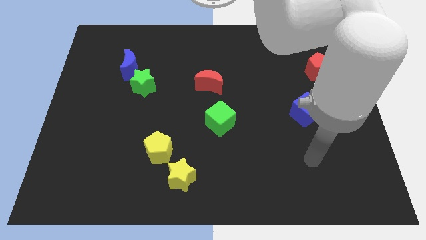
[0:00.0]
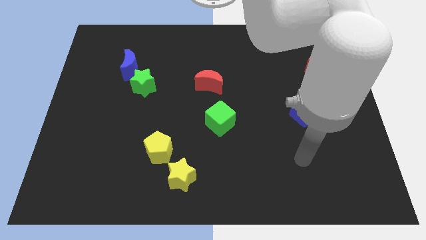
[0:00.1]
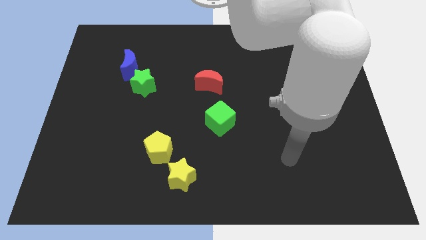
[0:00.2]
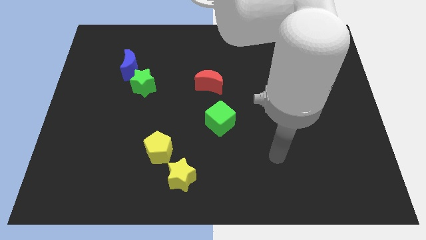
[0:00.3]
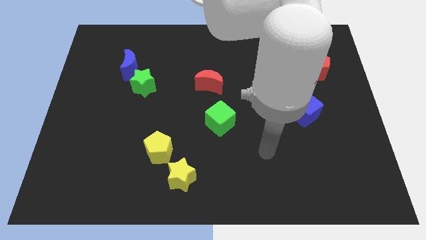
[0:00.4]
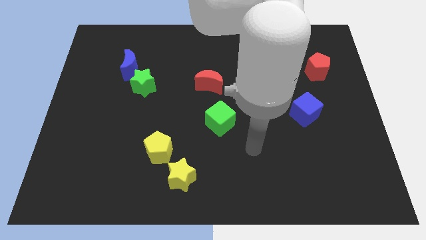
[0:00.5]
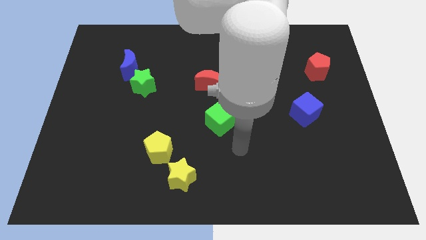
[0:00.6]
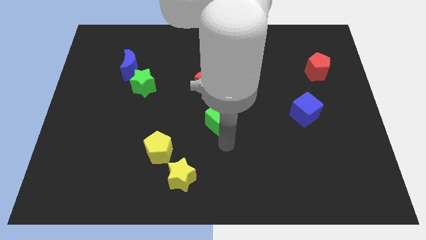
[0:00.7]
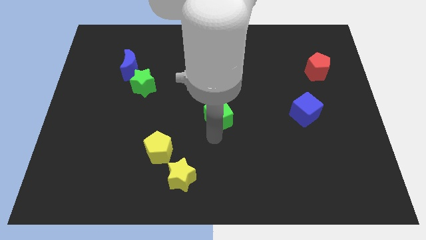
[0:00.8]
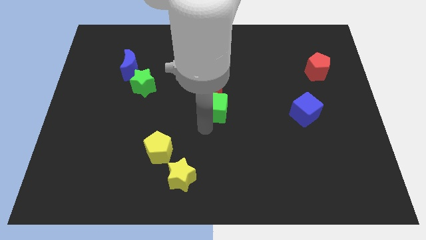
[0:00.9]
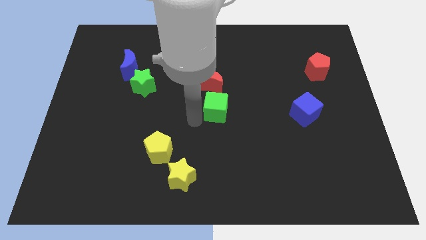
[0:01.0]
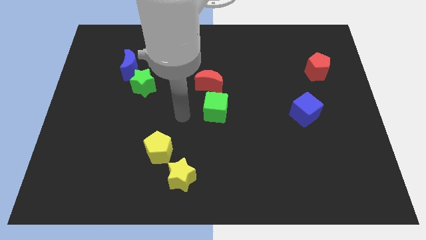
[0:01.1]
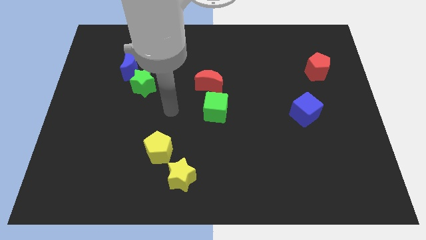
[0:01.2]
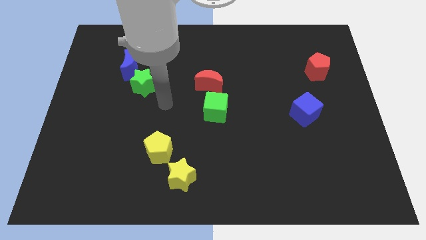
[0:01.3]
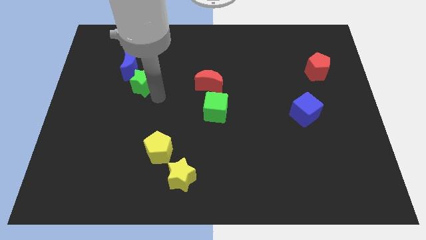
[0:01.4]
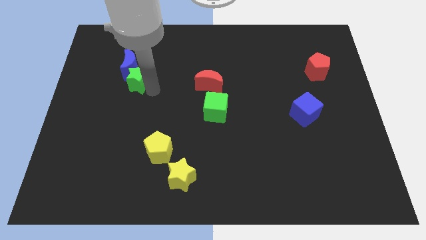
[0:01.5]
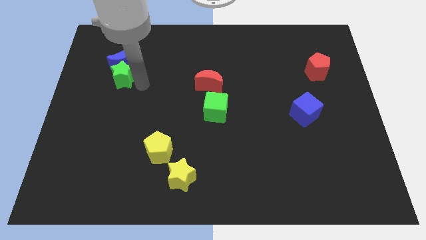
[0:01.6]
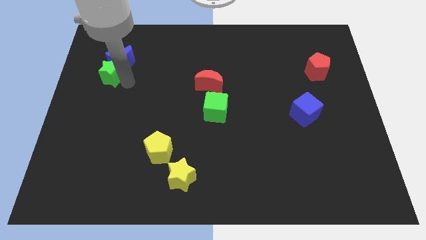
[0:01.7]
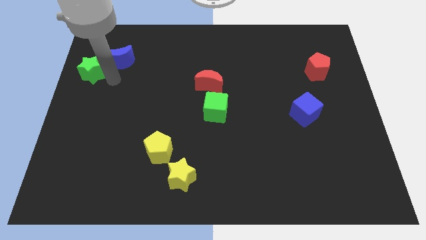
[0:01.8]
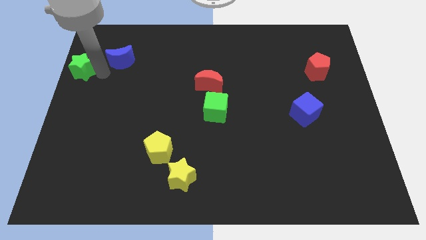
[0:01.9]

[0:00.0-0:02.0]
move the blue moon away from the green star

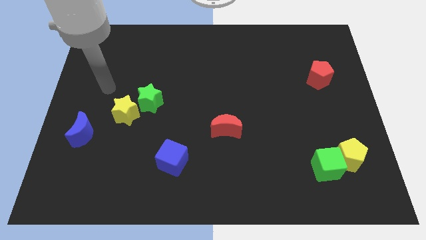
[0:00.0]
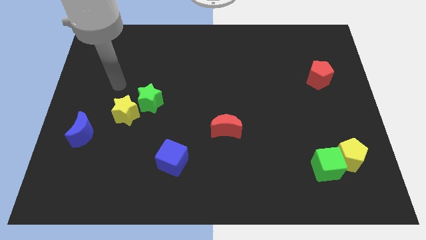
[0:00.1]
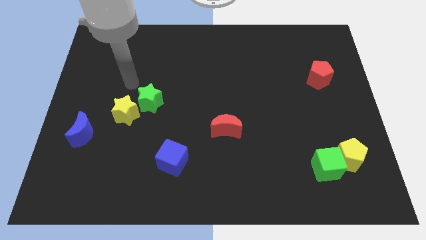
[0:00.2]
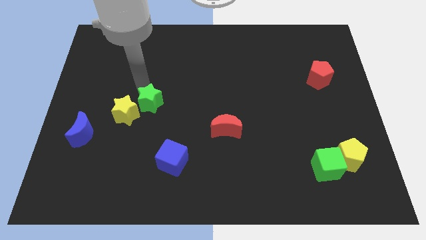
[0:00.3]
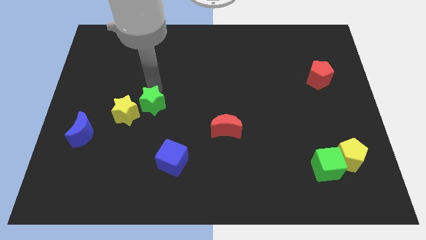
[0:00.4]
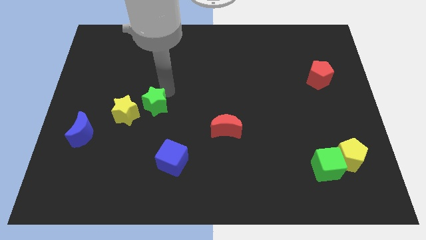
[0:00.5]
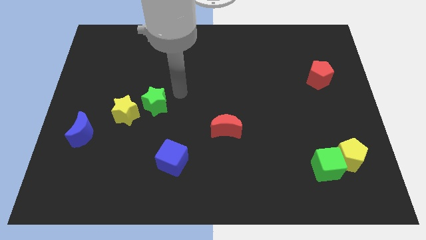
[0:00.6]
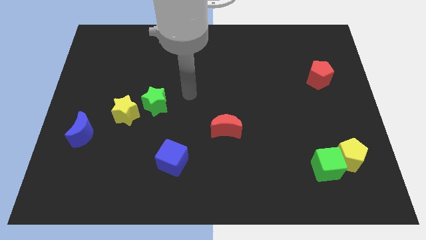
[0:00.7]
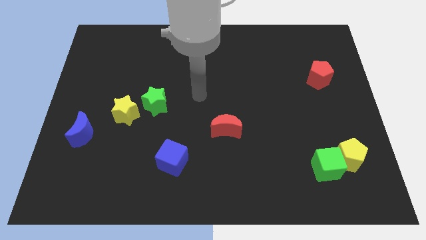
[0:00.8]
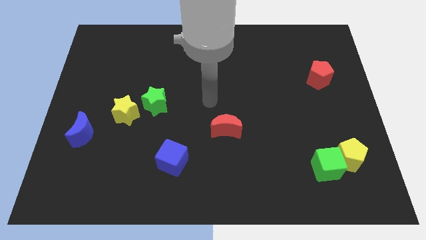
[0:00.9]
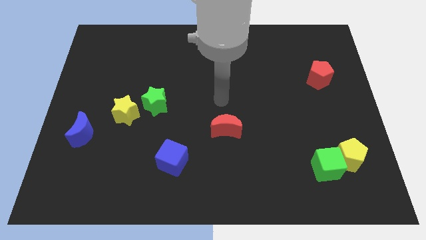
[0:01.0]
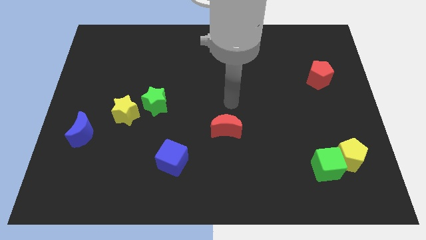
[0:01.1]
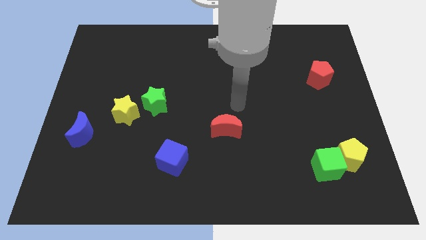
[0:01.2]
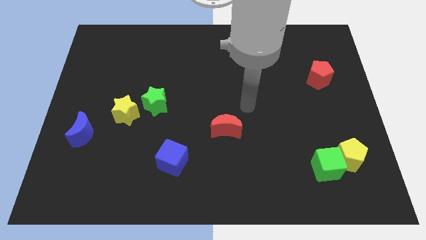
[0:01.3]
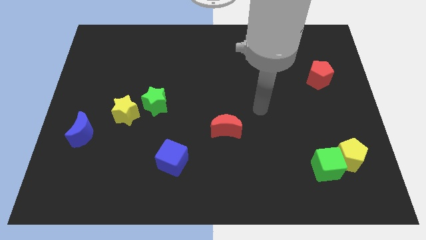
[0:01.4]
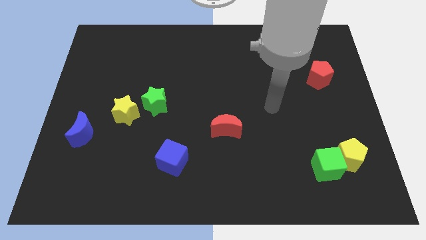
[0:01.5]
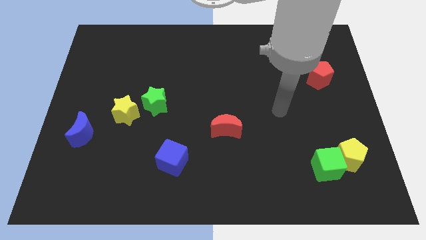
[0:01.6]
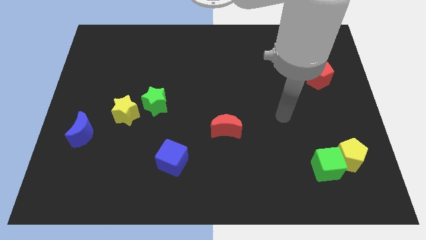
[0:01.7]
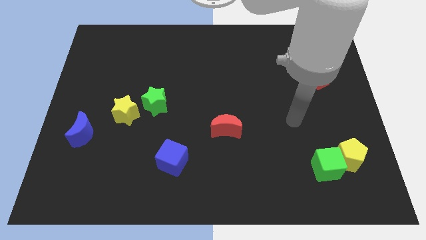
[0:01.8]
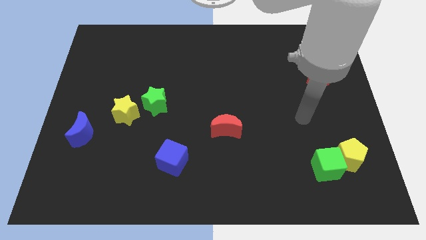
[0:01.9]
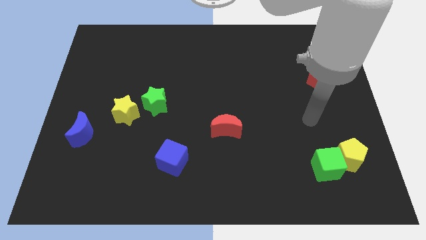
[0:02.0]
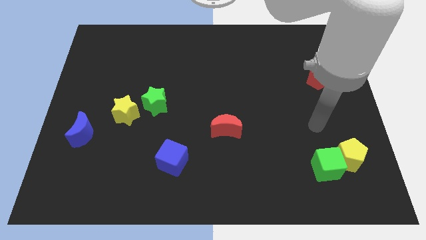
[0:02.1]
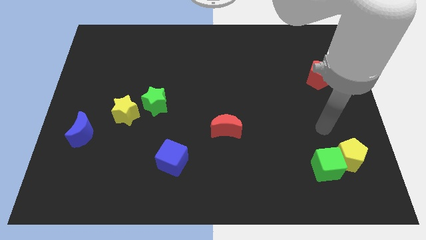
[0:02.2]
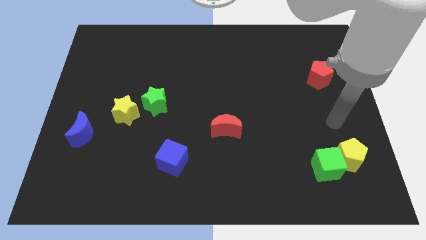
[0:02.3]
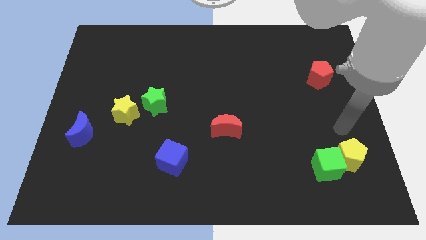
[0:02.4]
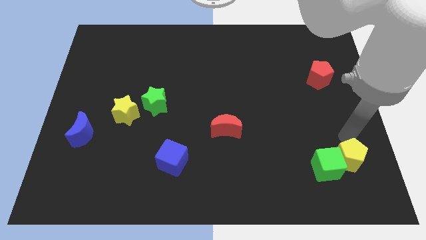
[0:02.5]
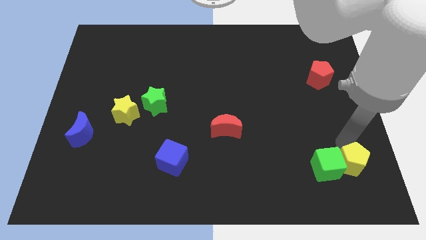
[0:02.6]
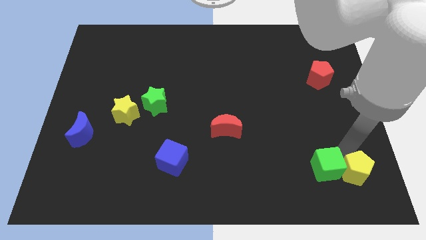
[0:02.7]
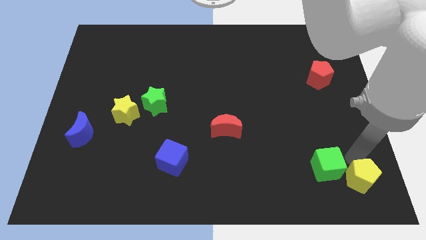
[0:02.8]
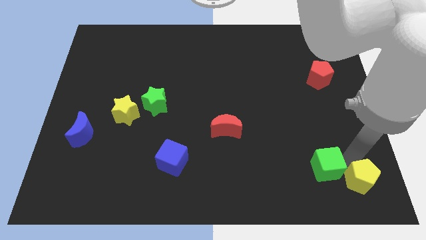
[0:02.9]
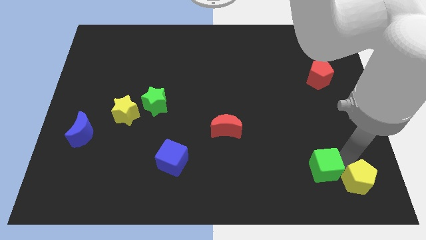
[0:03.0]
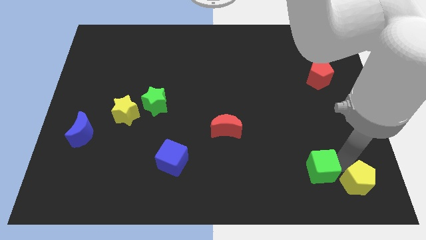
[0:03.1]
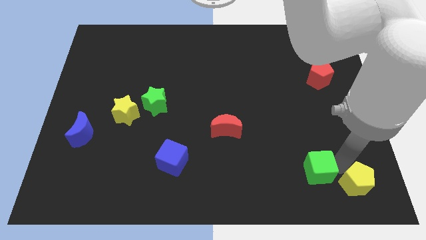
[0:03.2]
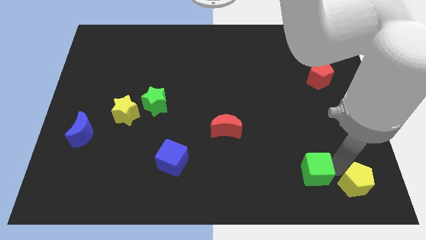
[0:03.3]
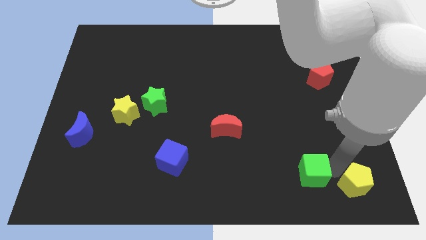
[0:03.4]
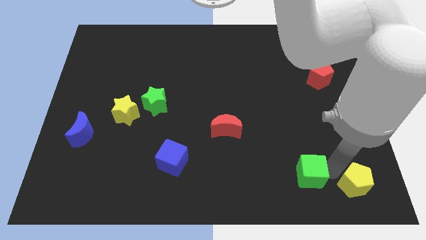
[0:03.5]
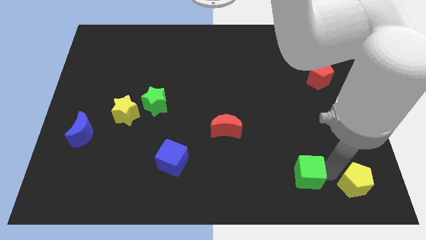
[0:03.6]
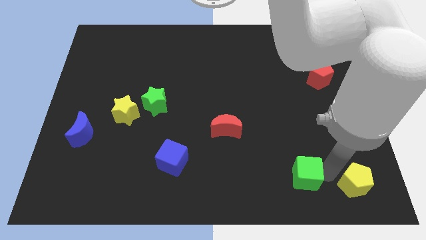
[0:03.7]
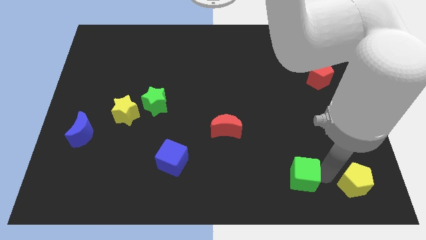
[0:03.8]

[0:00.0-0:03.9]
pull the green cube apart from the yellow pentagon

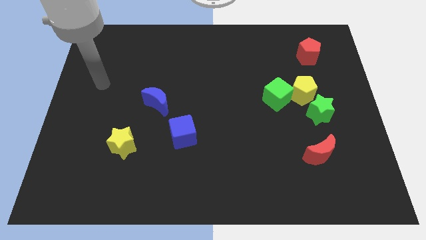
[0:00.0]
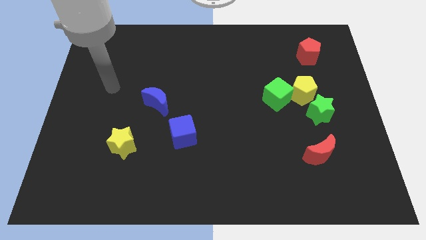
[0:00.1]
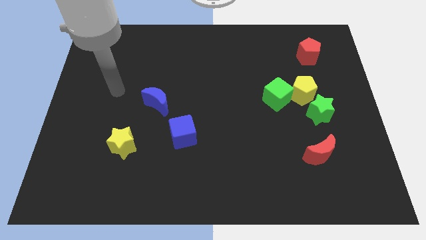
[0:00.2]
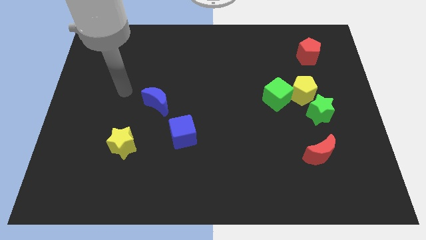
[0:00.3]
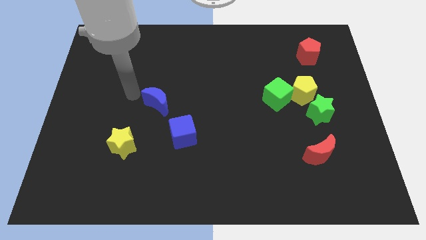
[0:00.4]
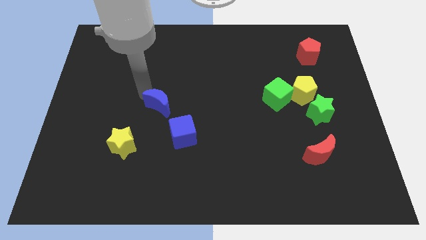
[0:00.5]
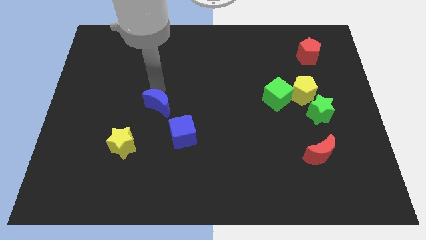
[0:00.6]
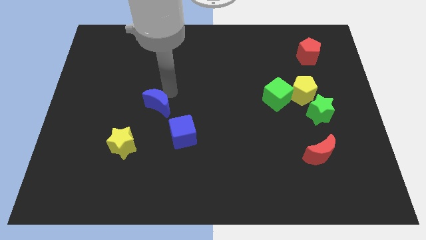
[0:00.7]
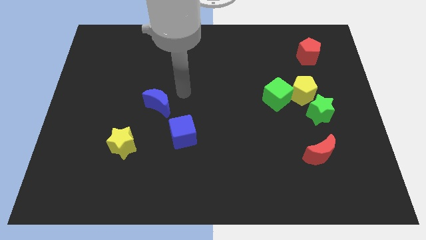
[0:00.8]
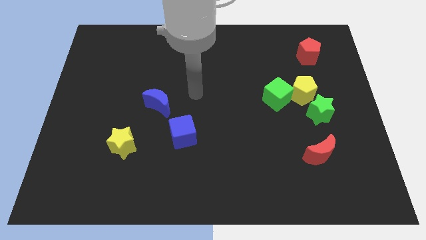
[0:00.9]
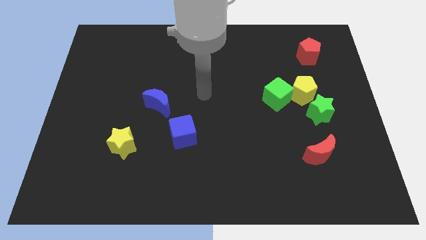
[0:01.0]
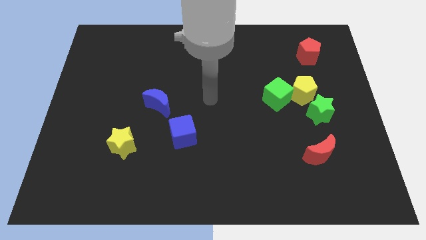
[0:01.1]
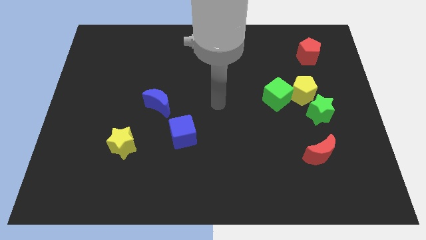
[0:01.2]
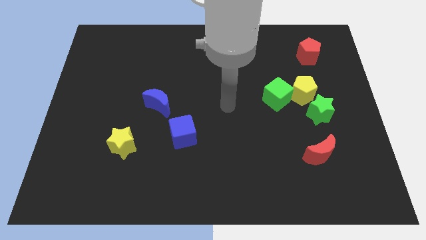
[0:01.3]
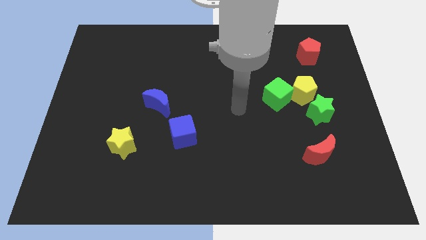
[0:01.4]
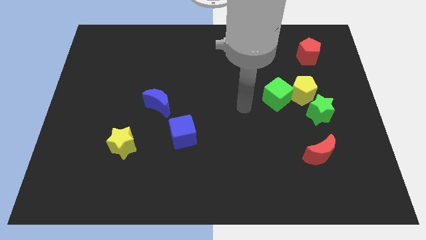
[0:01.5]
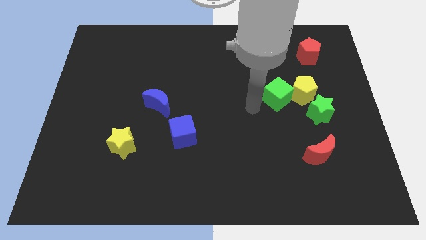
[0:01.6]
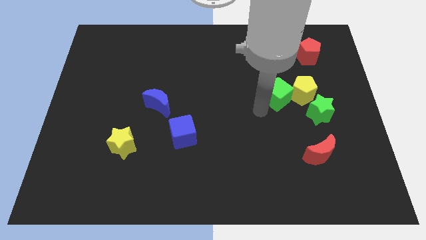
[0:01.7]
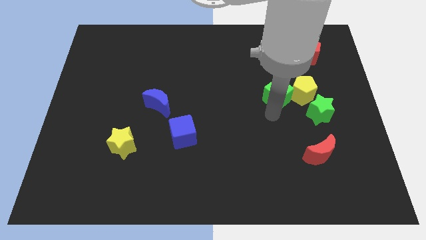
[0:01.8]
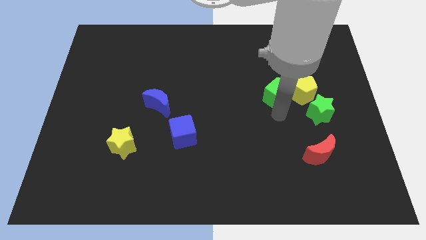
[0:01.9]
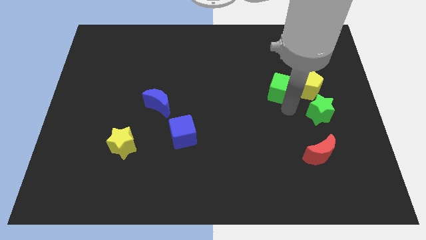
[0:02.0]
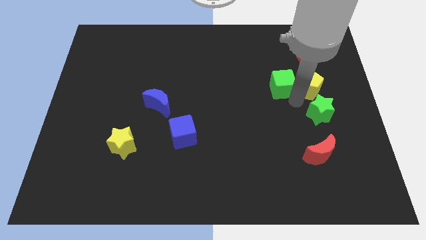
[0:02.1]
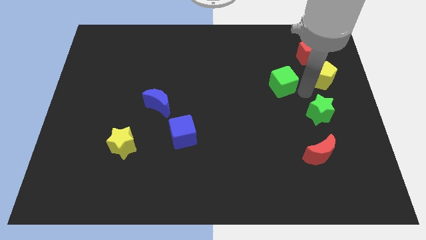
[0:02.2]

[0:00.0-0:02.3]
move the green cube away from the yellow pentagon

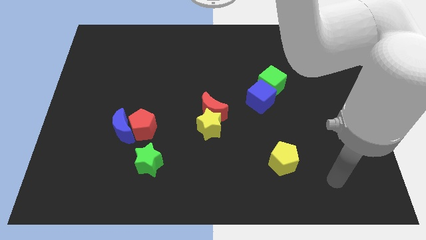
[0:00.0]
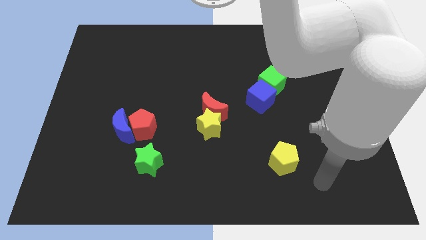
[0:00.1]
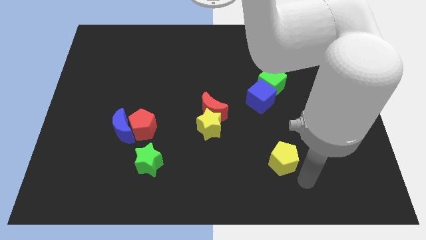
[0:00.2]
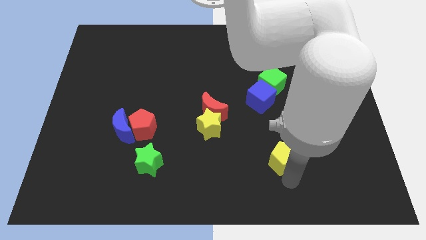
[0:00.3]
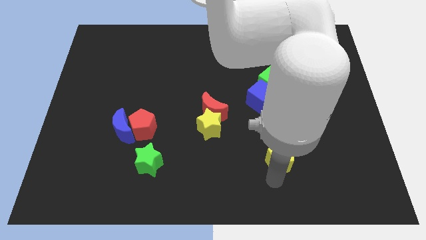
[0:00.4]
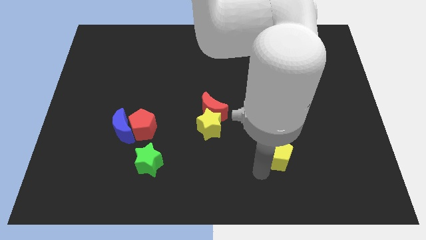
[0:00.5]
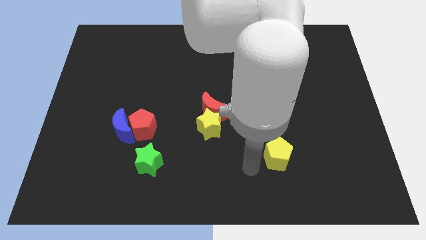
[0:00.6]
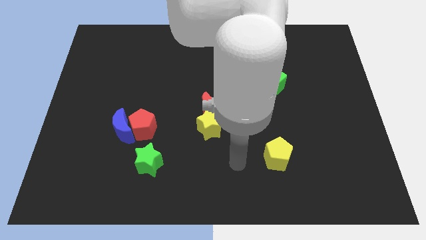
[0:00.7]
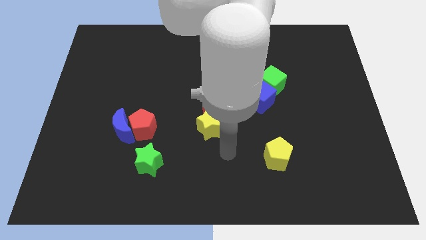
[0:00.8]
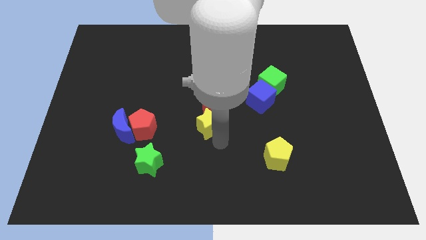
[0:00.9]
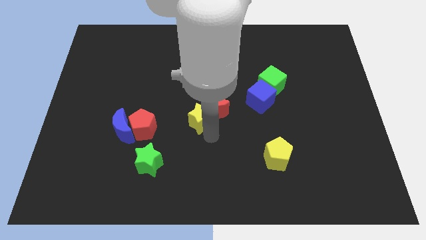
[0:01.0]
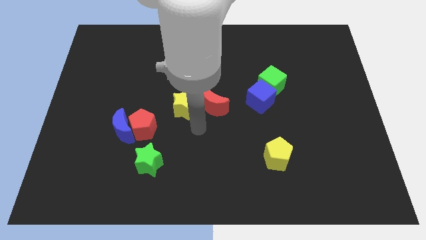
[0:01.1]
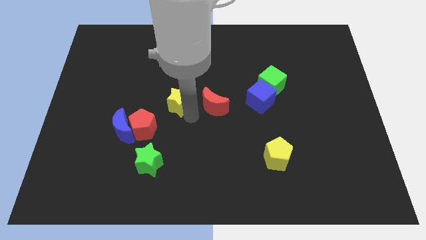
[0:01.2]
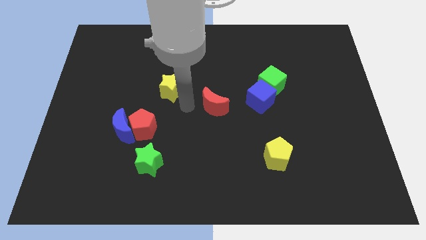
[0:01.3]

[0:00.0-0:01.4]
move the red moon away from the yellow star
